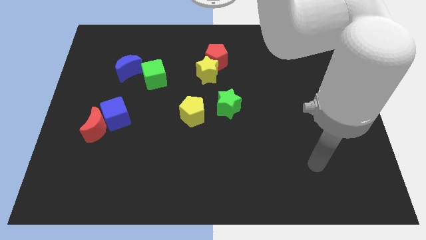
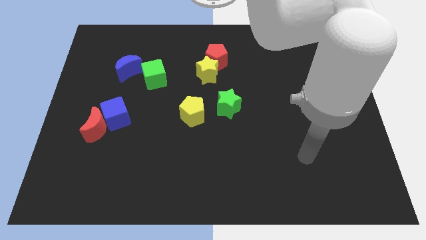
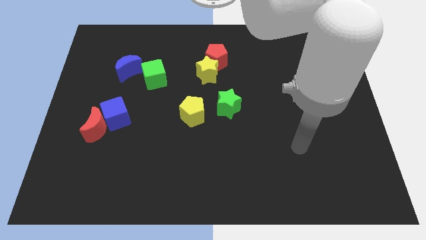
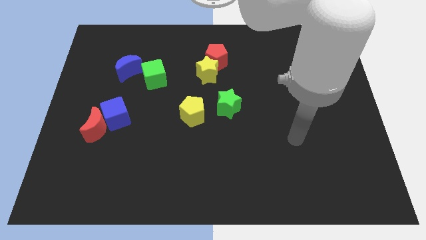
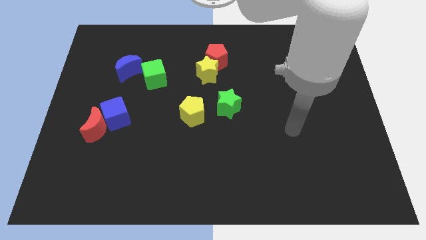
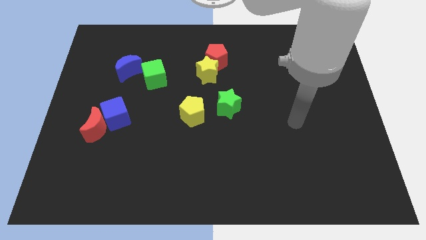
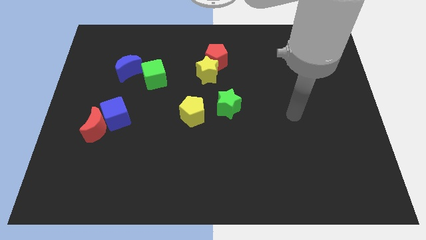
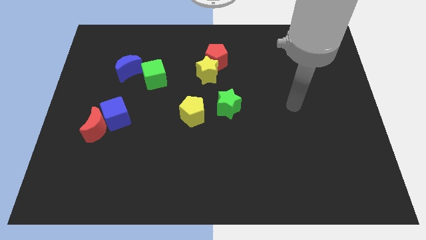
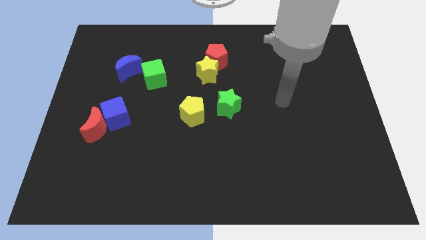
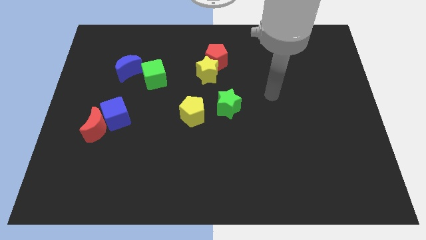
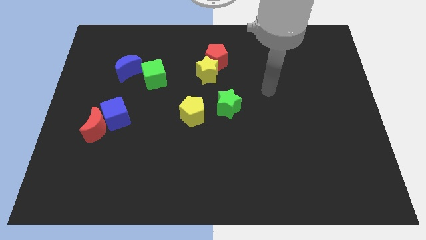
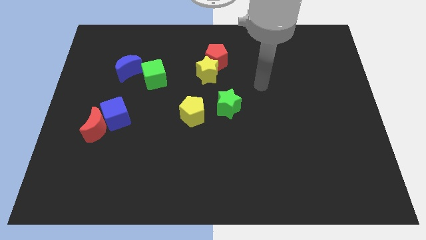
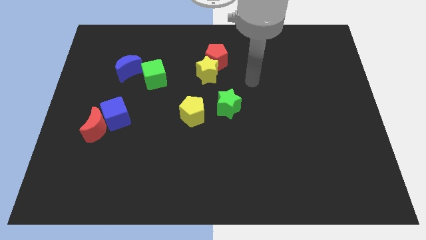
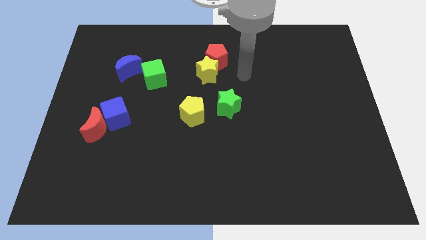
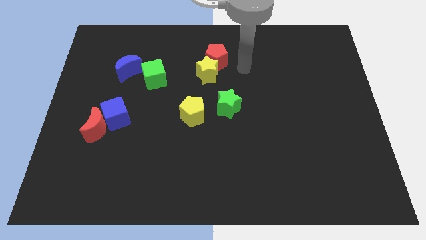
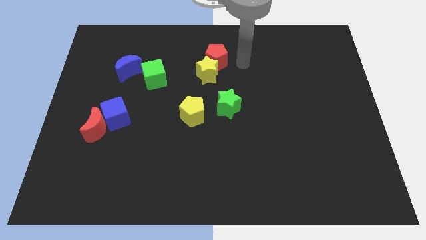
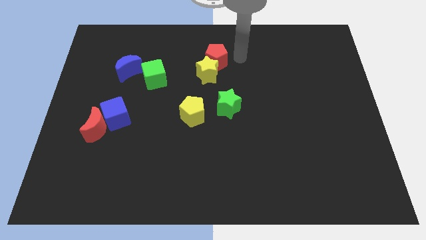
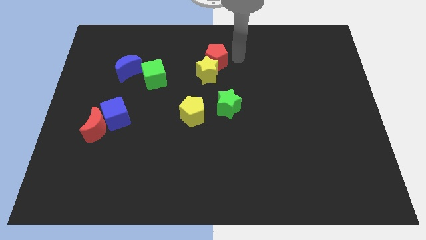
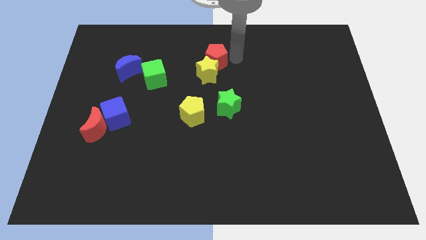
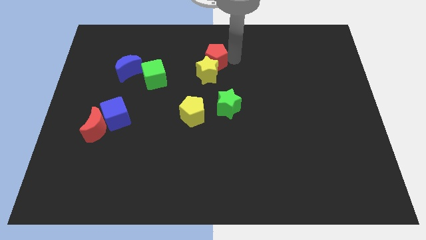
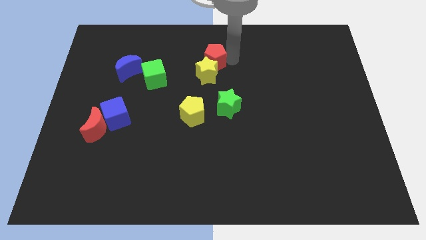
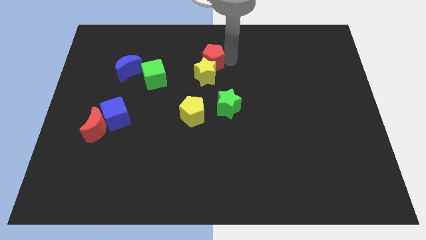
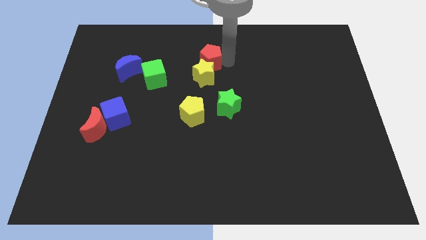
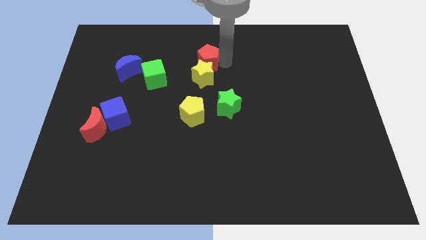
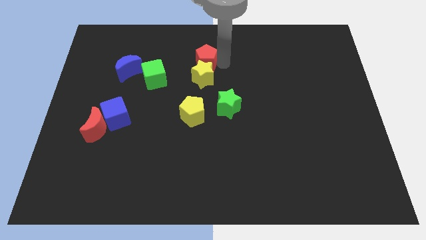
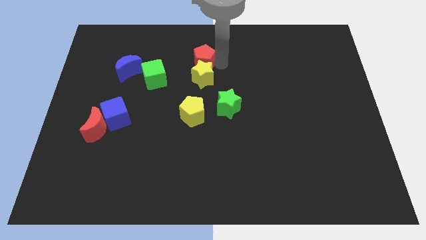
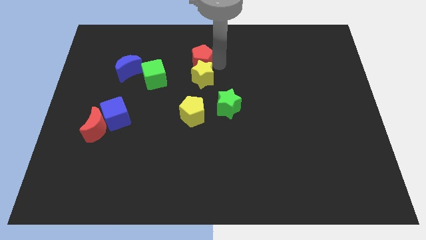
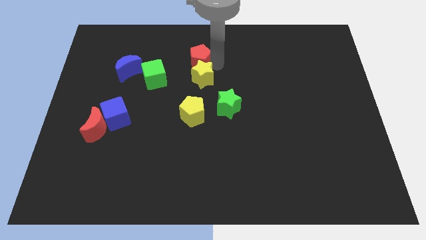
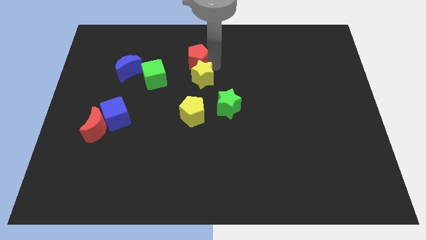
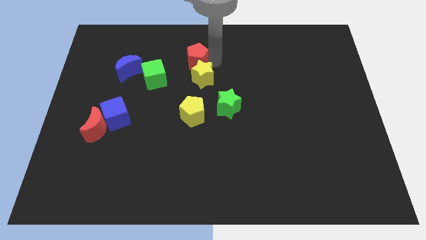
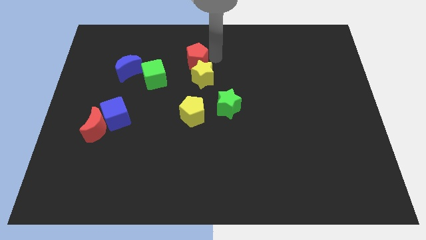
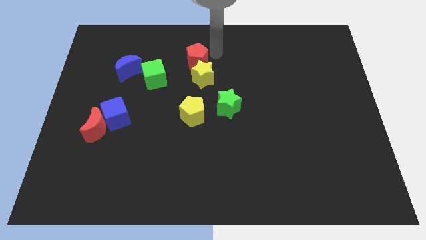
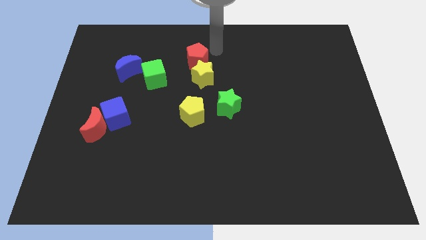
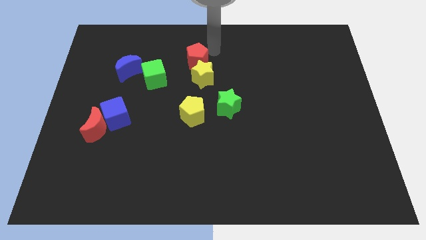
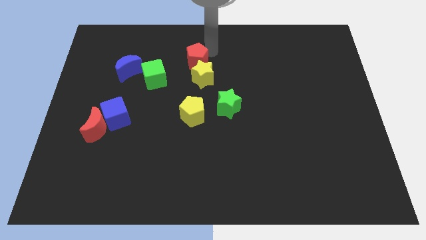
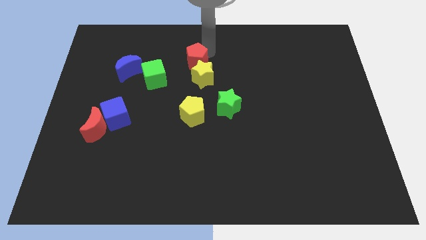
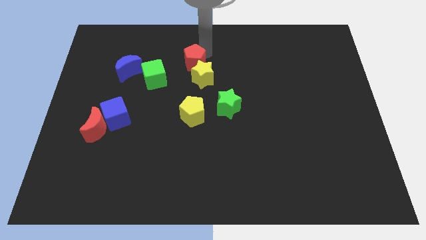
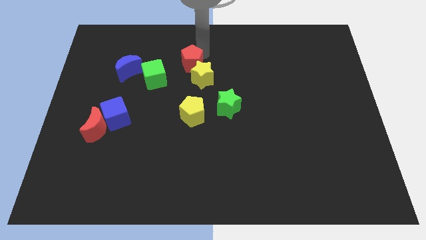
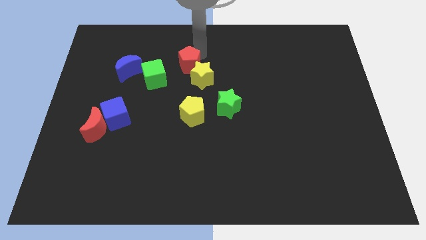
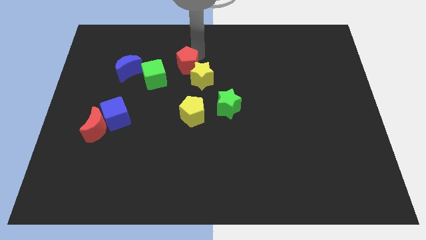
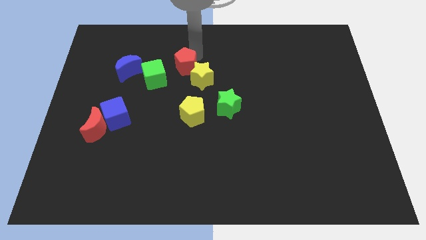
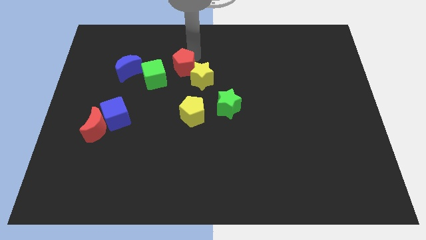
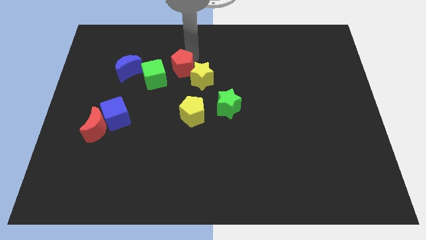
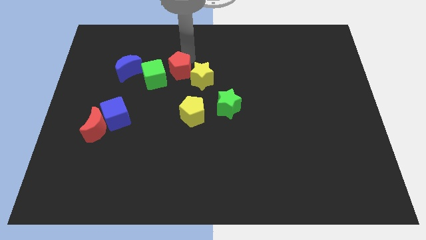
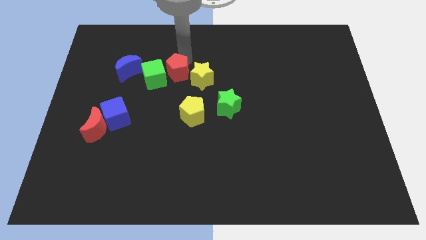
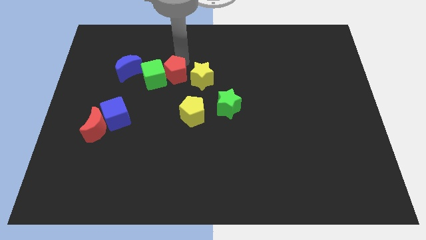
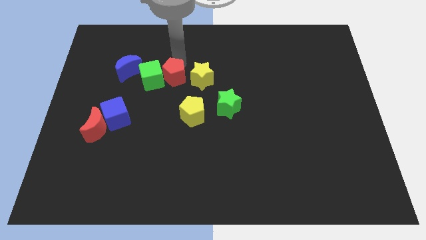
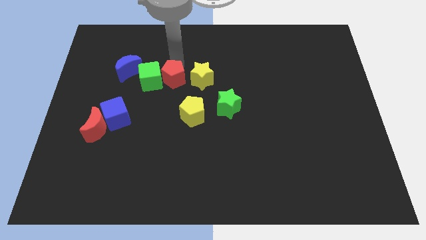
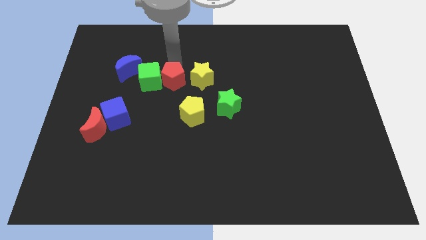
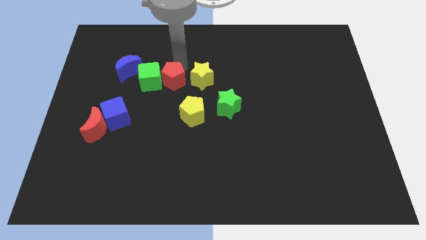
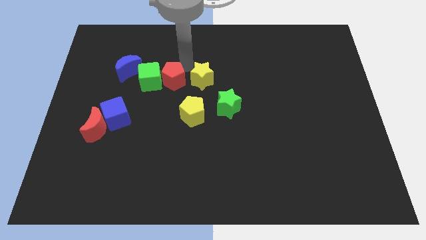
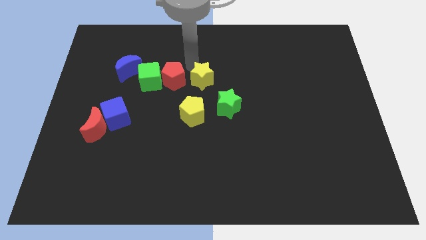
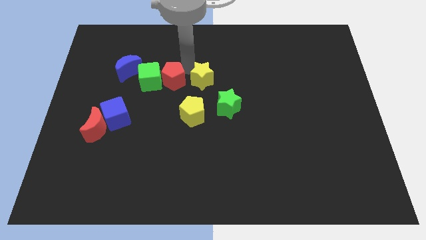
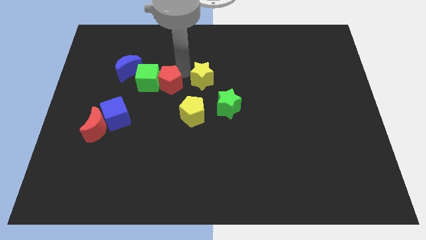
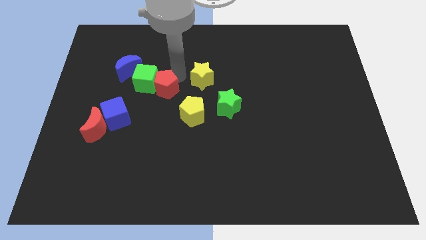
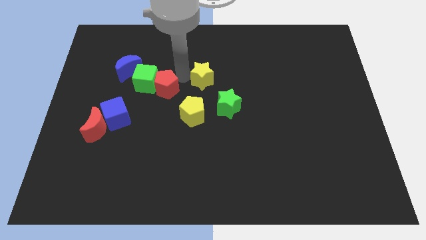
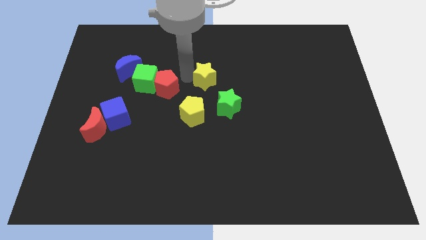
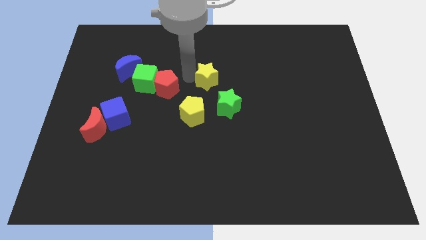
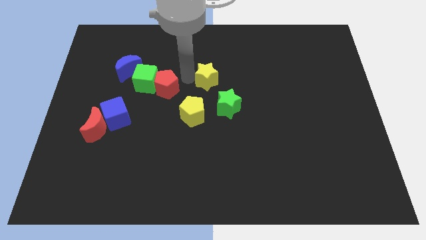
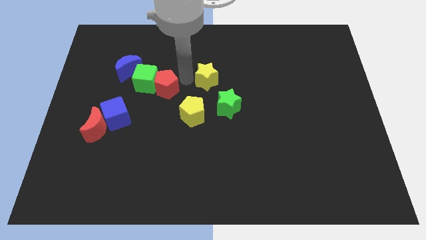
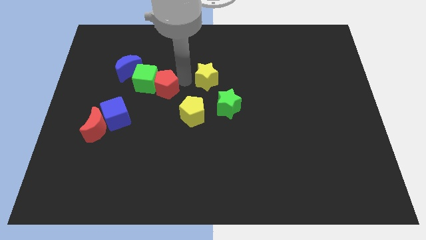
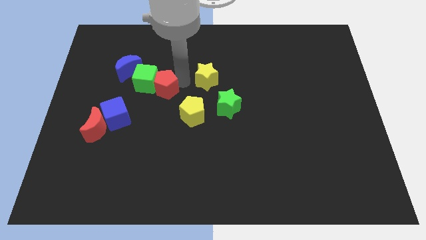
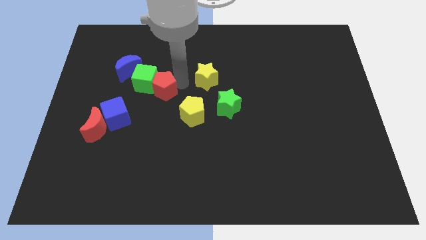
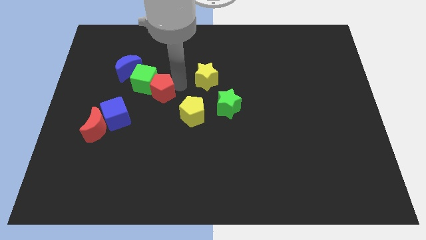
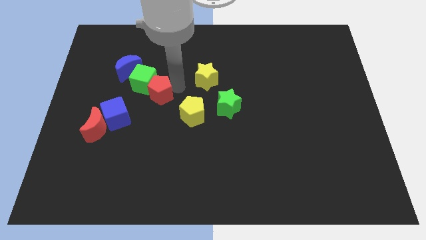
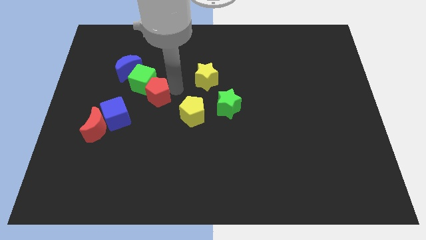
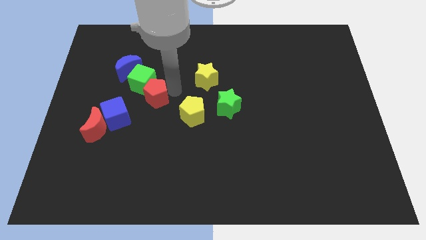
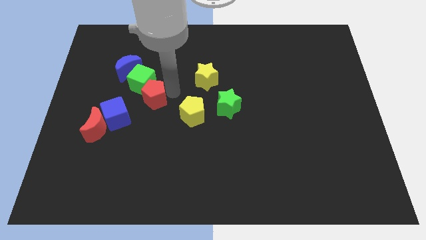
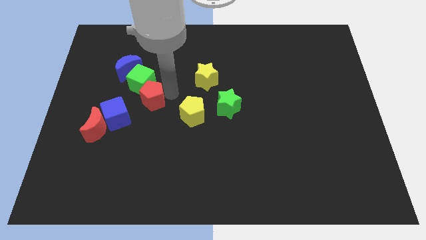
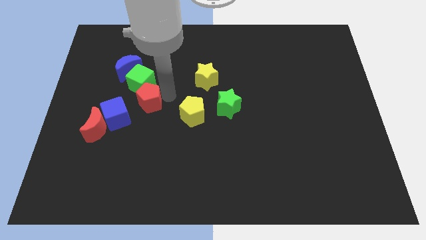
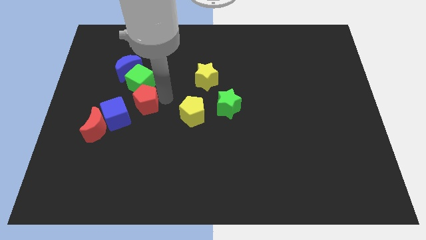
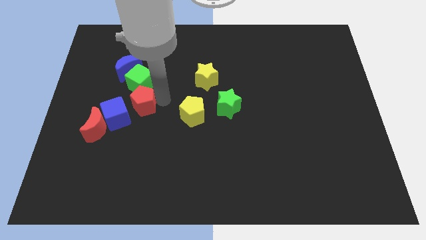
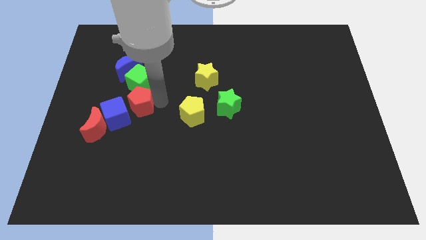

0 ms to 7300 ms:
slide the red pentagon to the blue cube

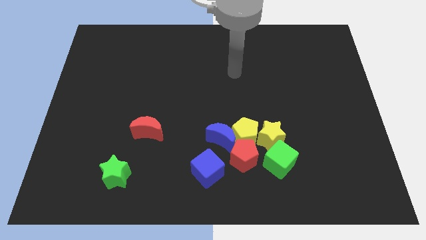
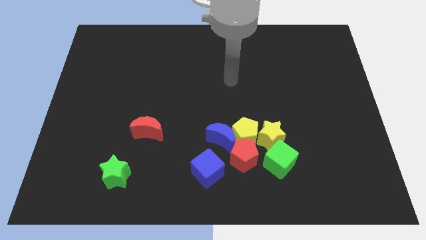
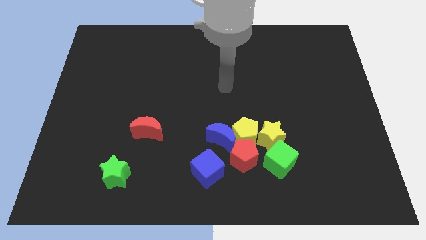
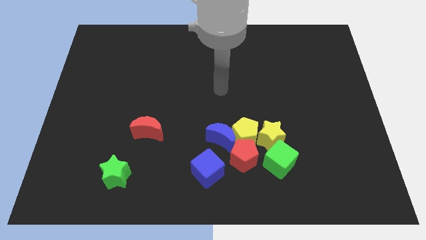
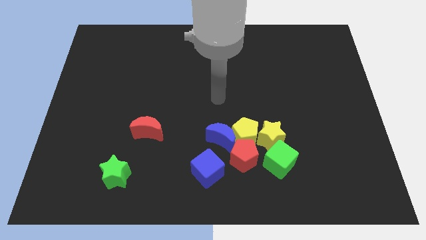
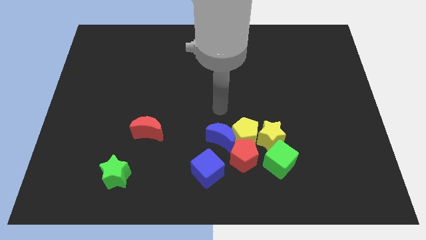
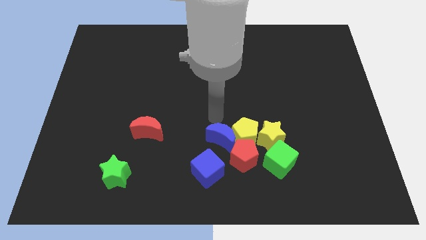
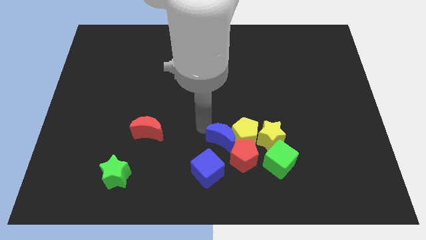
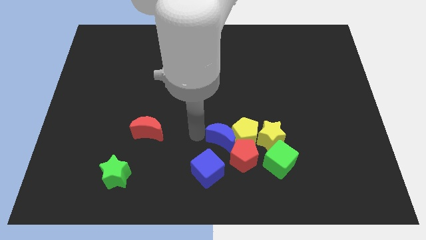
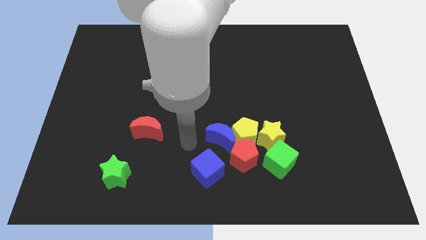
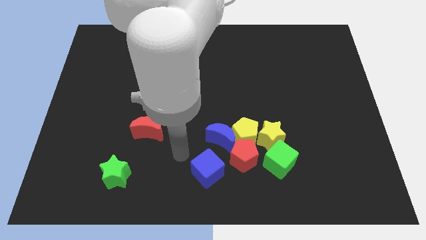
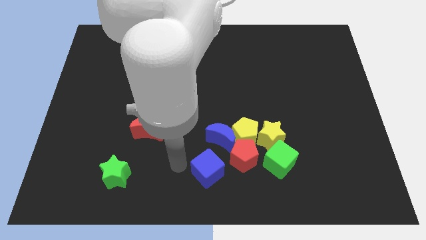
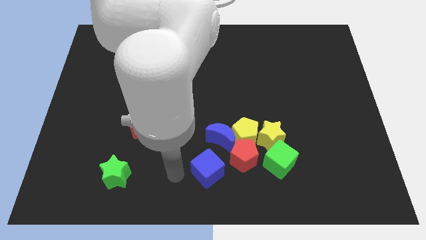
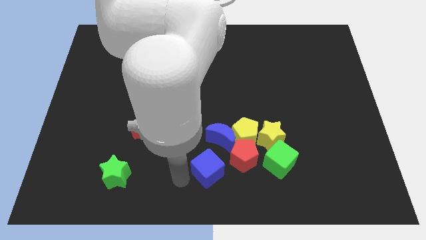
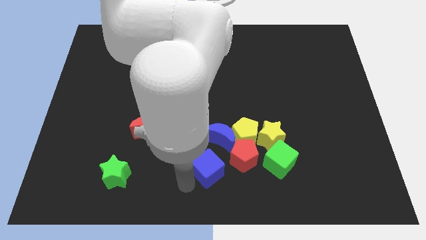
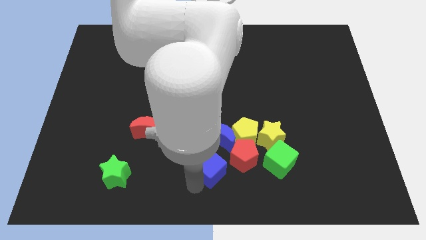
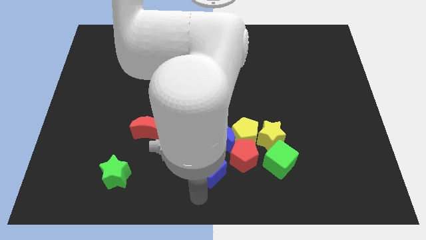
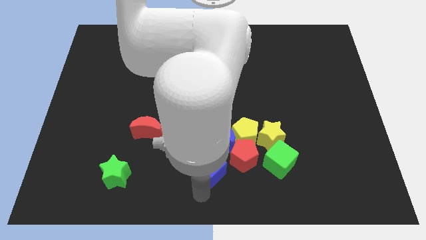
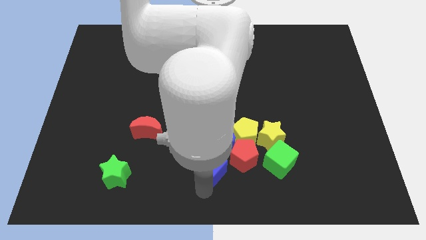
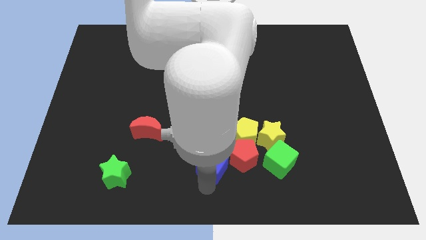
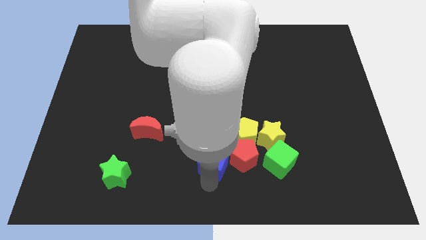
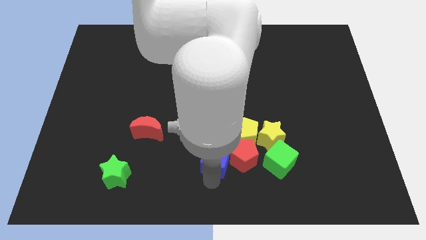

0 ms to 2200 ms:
slide the blue cube next to the blue moon
